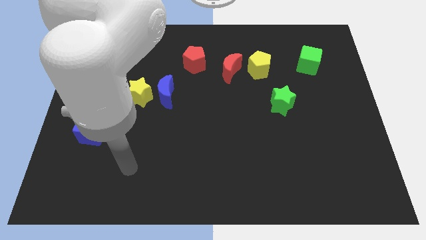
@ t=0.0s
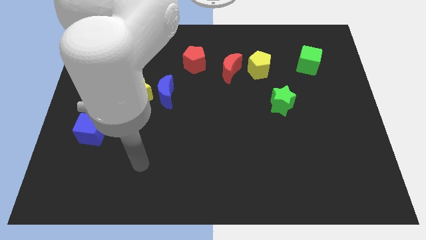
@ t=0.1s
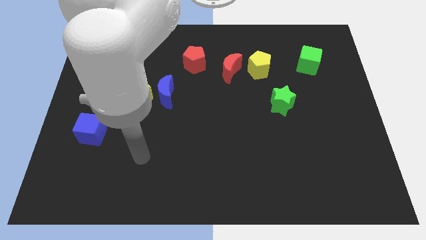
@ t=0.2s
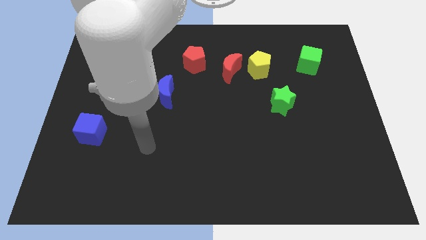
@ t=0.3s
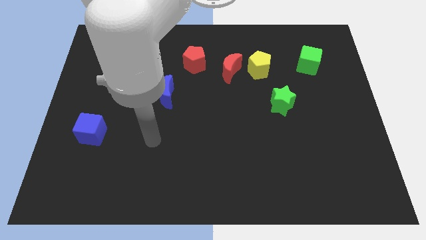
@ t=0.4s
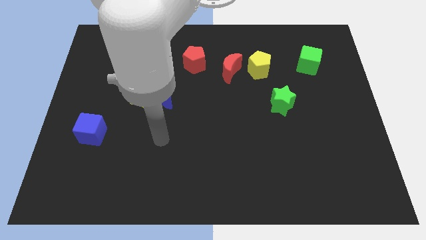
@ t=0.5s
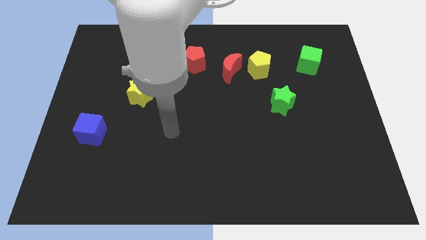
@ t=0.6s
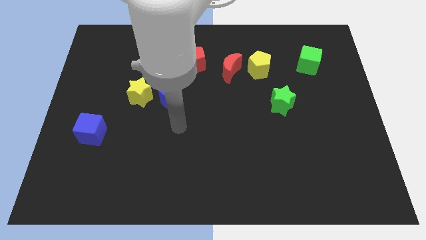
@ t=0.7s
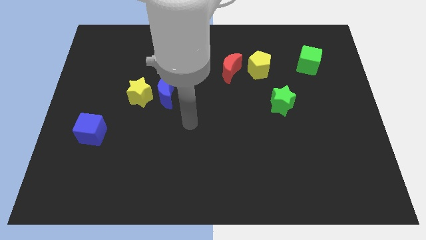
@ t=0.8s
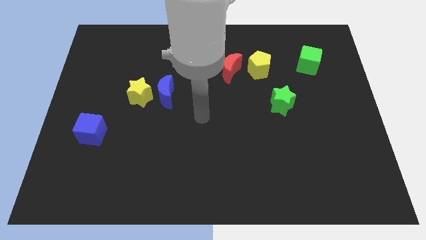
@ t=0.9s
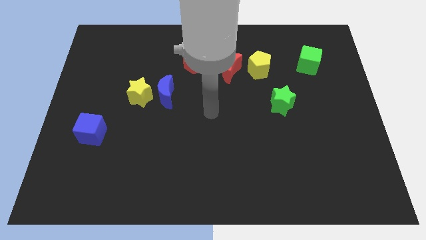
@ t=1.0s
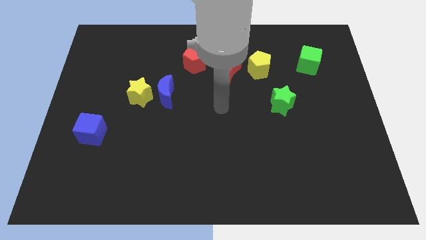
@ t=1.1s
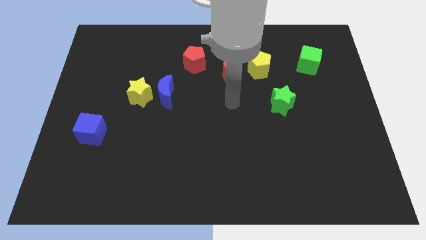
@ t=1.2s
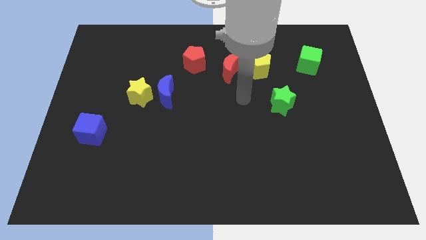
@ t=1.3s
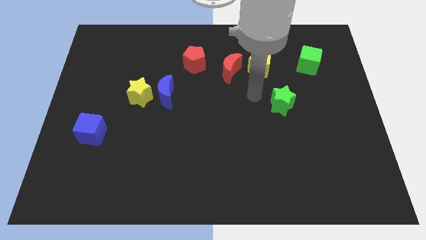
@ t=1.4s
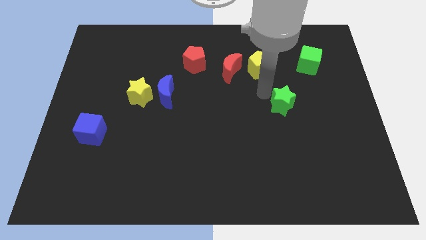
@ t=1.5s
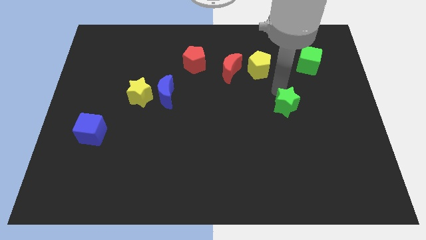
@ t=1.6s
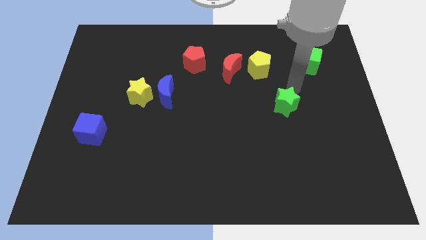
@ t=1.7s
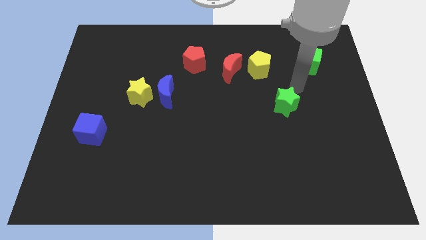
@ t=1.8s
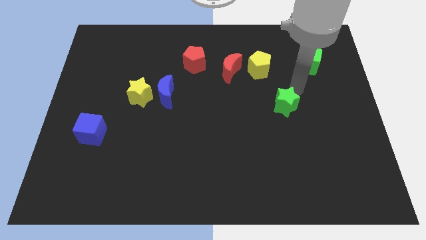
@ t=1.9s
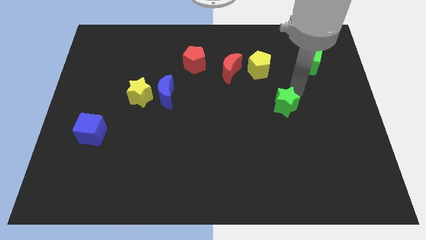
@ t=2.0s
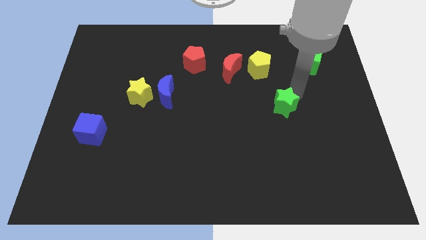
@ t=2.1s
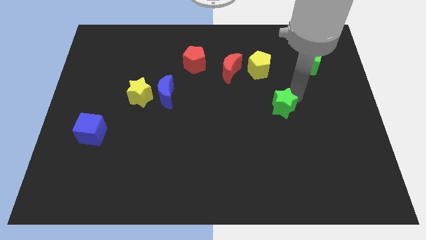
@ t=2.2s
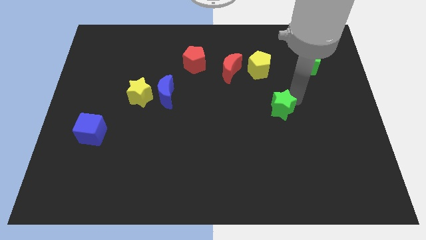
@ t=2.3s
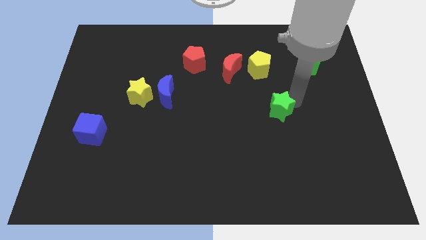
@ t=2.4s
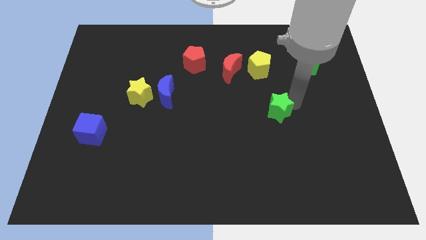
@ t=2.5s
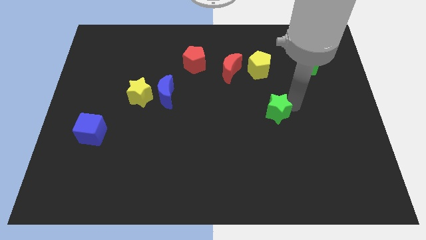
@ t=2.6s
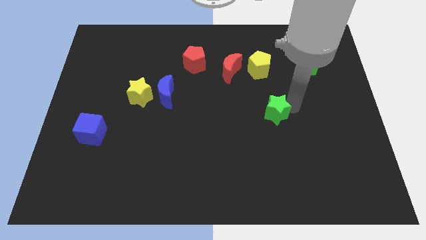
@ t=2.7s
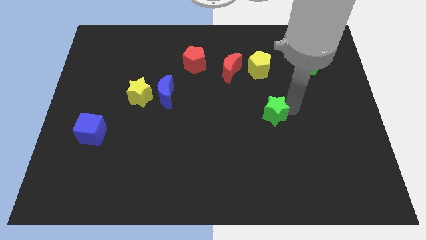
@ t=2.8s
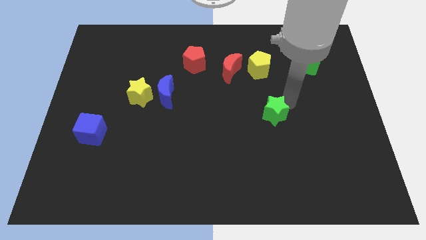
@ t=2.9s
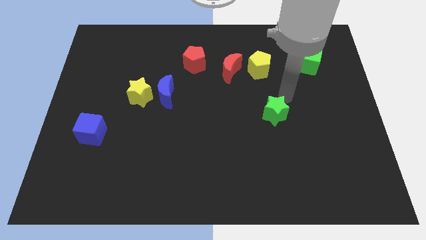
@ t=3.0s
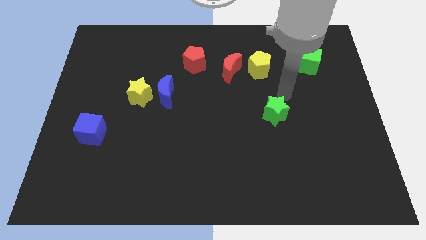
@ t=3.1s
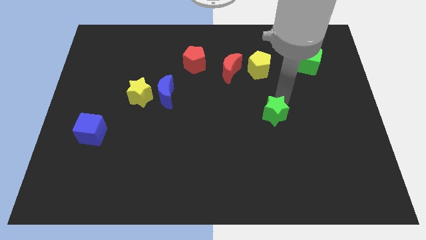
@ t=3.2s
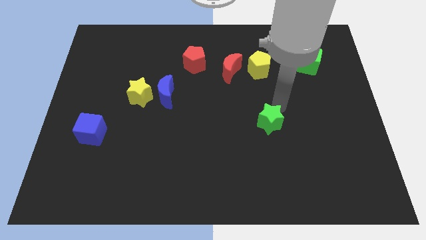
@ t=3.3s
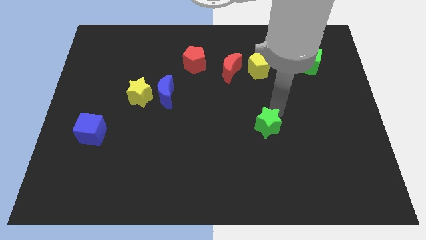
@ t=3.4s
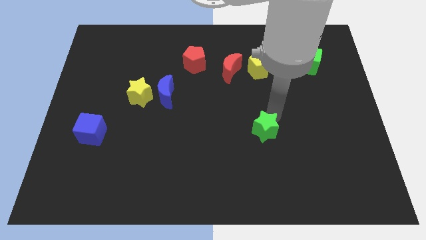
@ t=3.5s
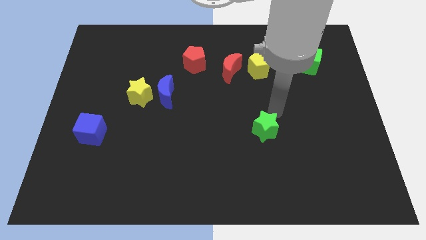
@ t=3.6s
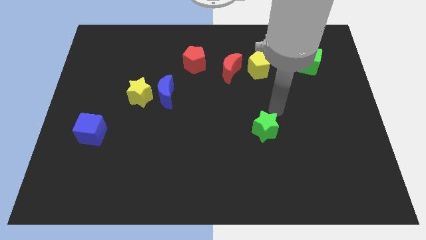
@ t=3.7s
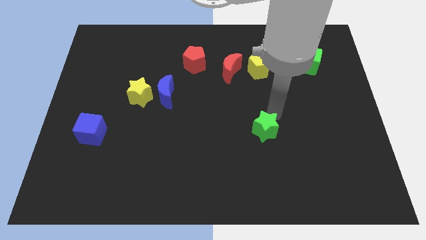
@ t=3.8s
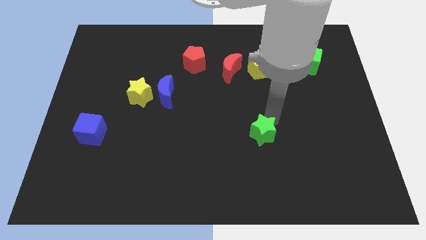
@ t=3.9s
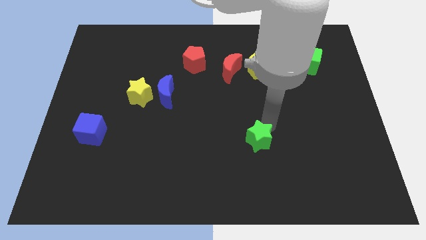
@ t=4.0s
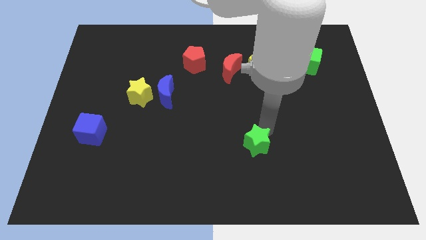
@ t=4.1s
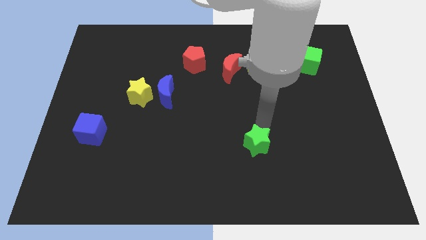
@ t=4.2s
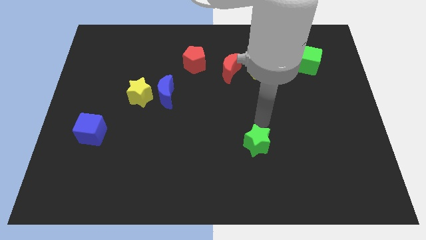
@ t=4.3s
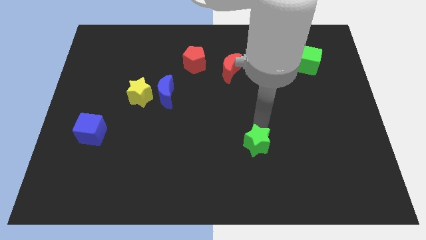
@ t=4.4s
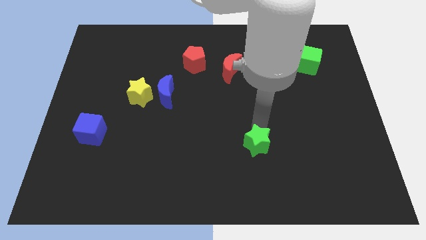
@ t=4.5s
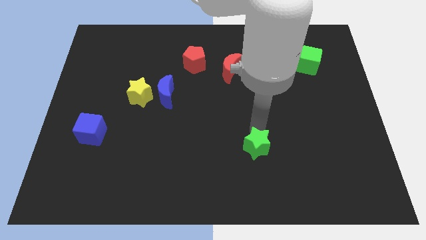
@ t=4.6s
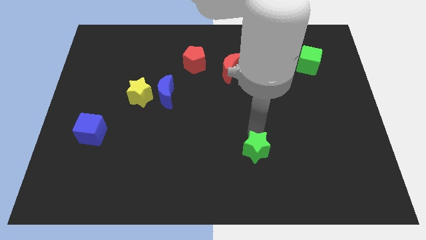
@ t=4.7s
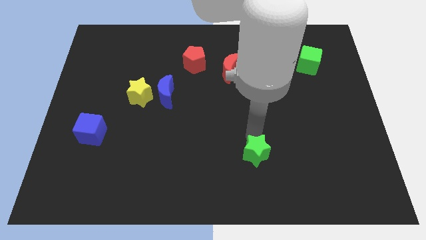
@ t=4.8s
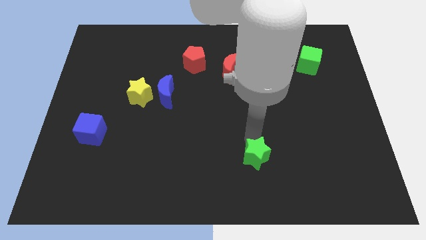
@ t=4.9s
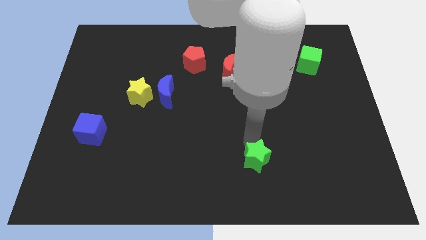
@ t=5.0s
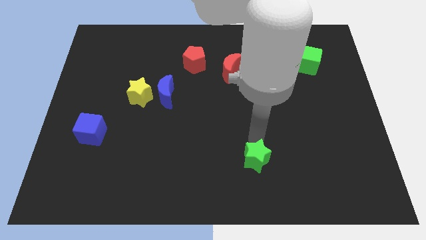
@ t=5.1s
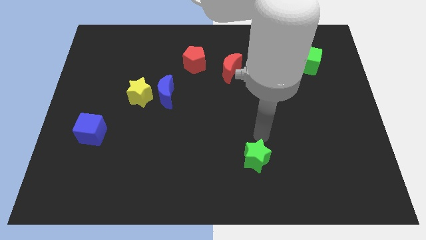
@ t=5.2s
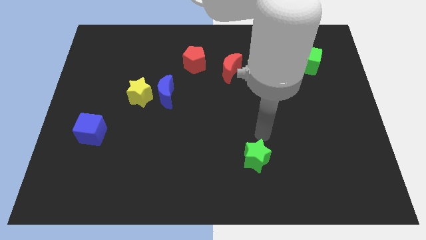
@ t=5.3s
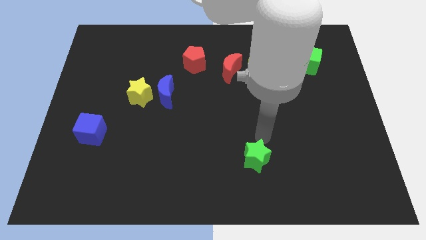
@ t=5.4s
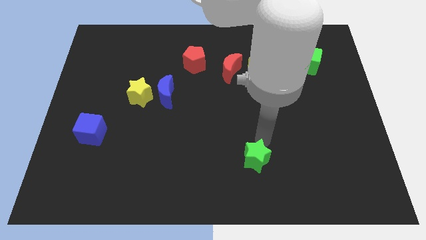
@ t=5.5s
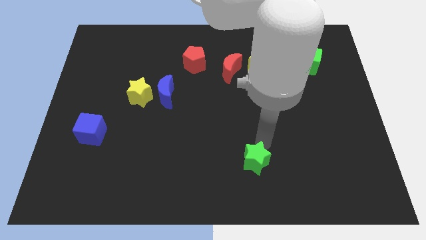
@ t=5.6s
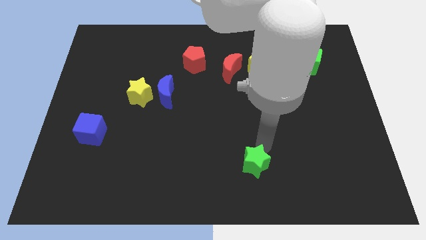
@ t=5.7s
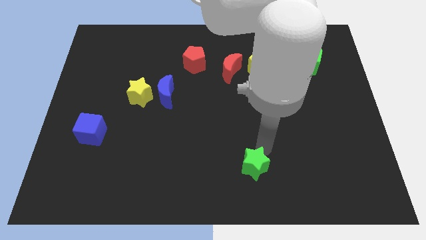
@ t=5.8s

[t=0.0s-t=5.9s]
slide the green star to the bottom side

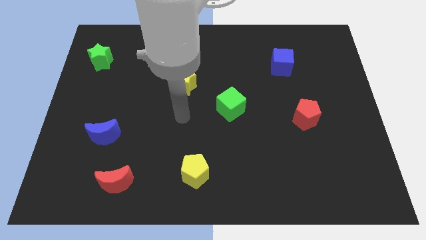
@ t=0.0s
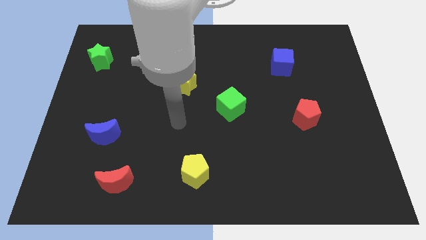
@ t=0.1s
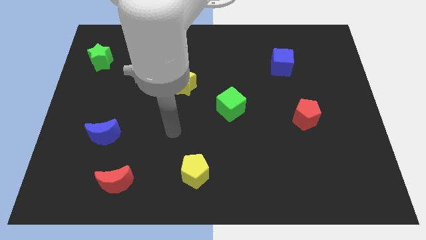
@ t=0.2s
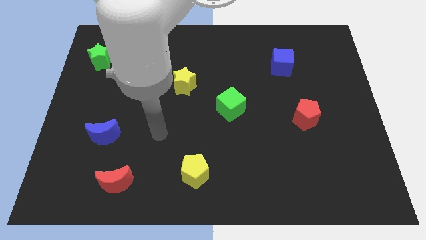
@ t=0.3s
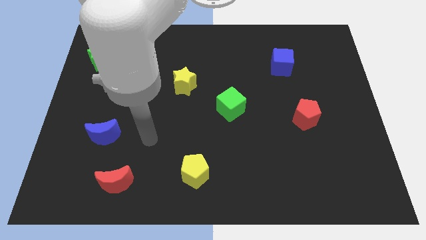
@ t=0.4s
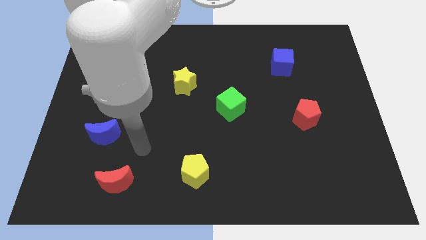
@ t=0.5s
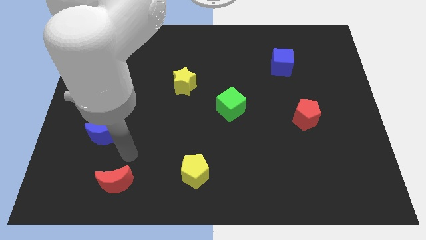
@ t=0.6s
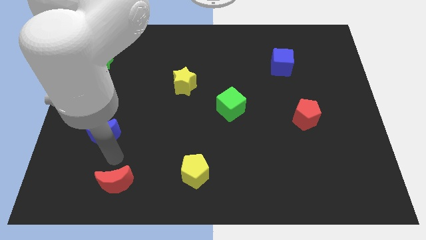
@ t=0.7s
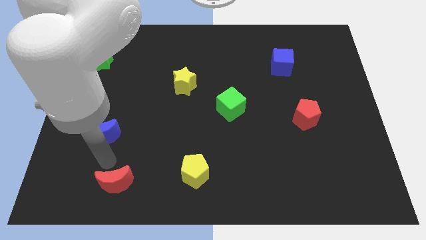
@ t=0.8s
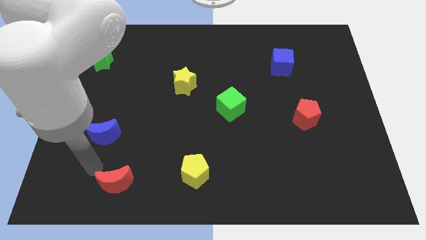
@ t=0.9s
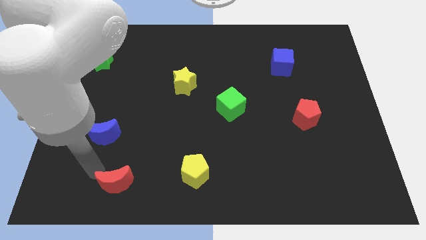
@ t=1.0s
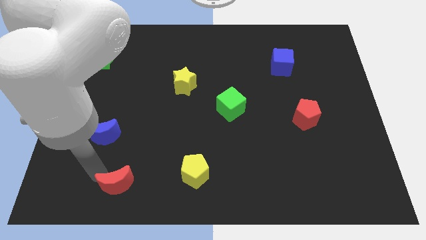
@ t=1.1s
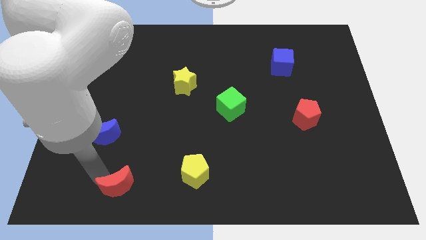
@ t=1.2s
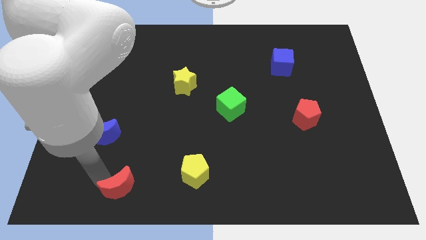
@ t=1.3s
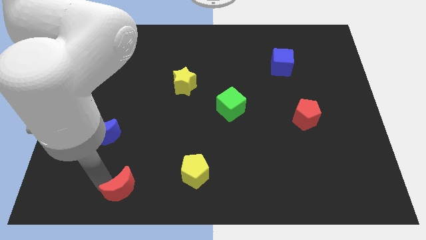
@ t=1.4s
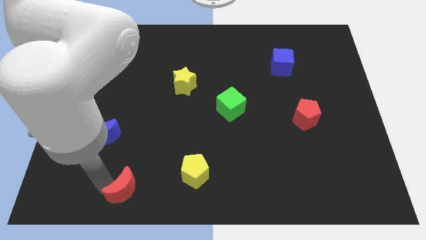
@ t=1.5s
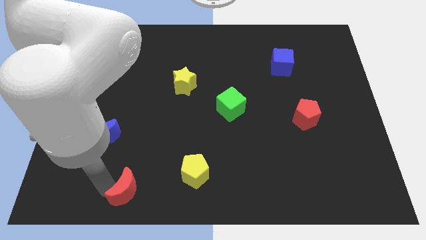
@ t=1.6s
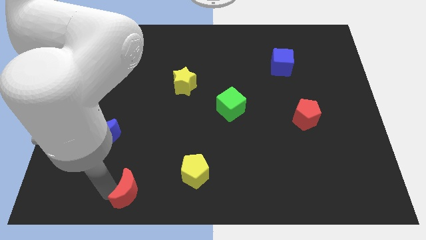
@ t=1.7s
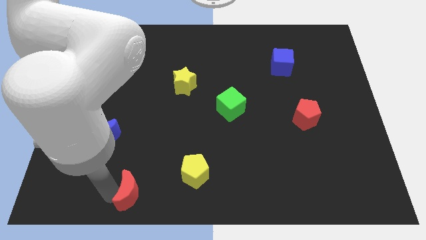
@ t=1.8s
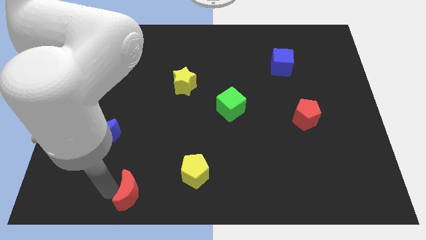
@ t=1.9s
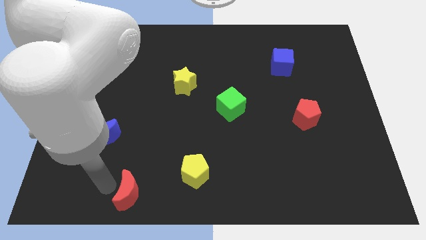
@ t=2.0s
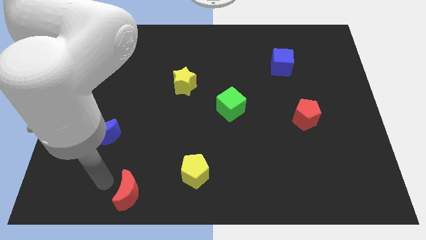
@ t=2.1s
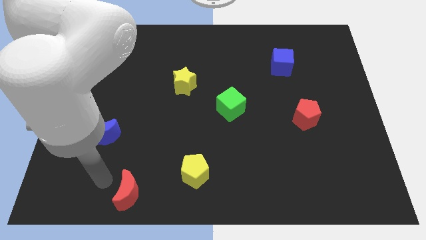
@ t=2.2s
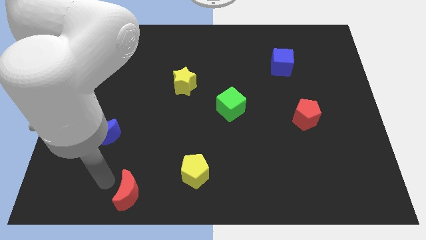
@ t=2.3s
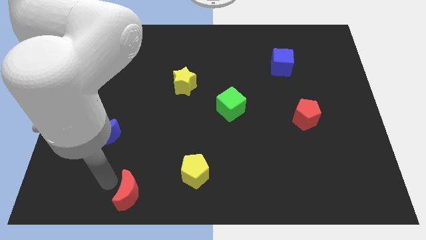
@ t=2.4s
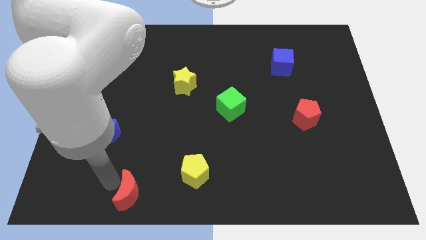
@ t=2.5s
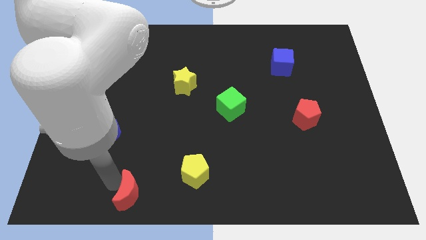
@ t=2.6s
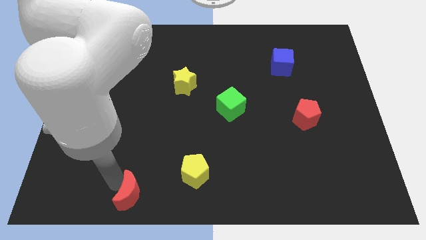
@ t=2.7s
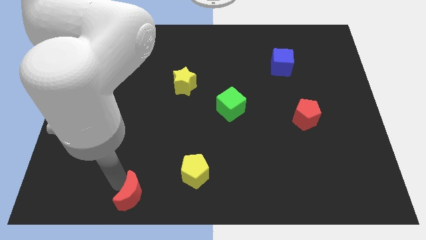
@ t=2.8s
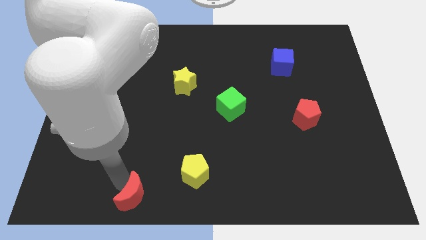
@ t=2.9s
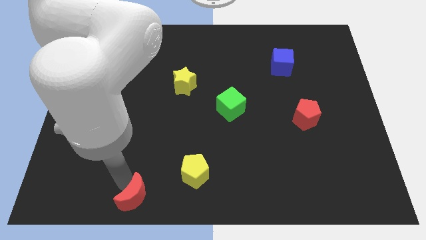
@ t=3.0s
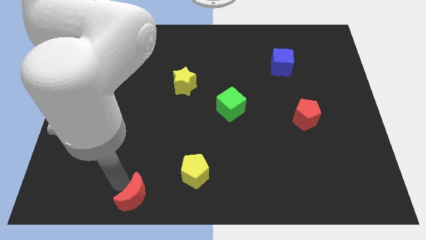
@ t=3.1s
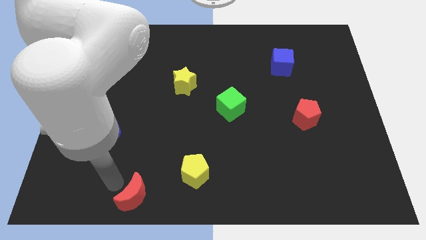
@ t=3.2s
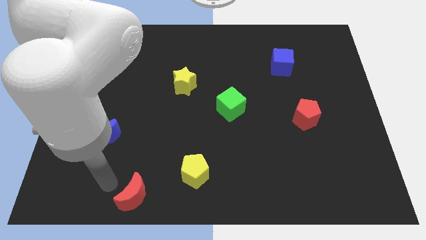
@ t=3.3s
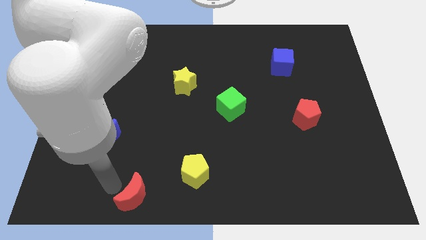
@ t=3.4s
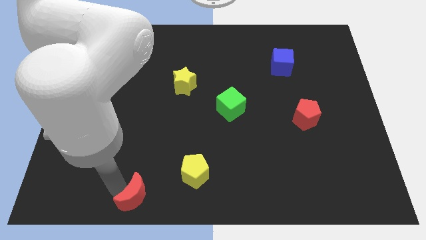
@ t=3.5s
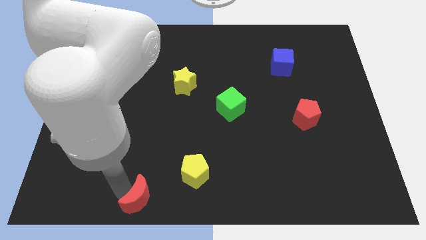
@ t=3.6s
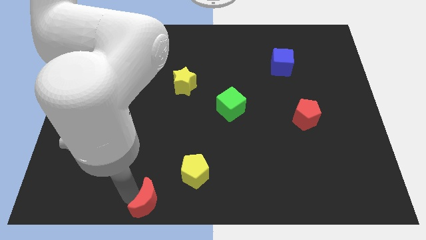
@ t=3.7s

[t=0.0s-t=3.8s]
move the red moon to the bottom side
